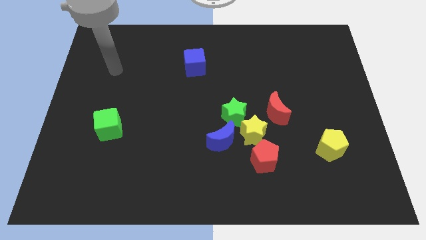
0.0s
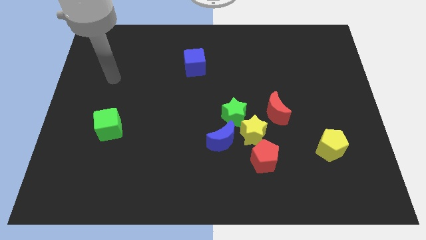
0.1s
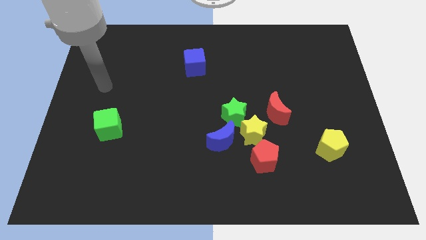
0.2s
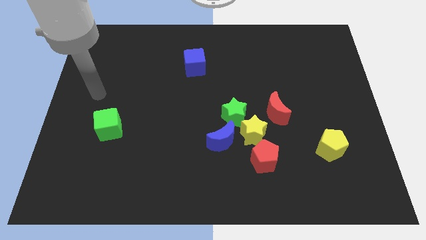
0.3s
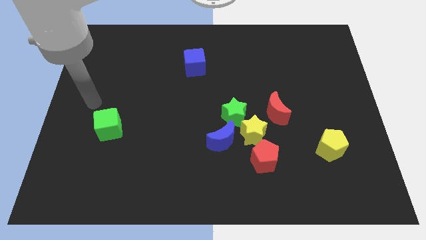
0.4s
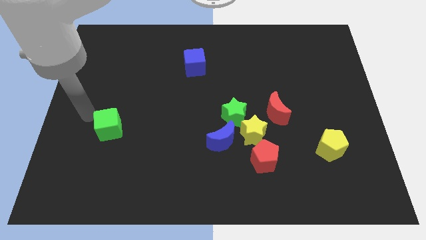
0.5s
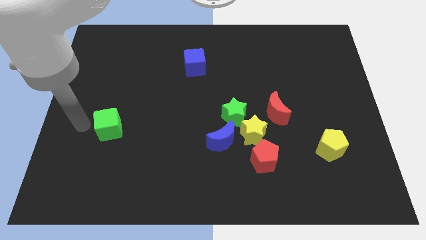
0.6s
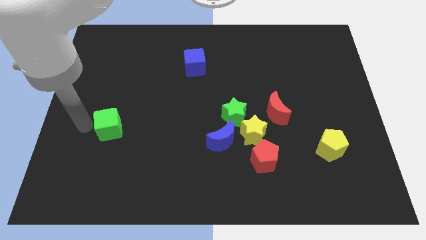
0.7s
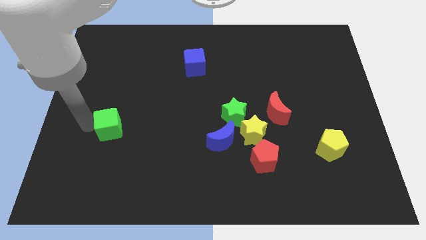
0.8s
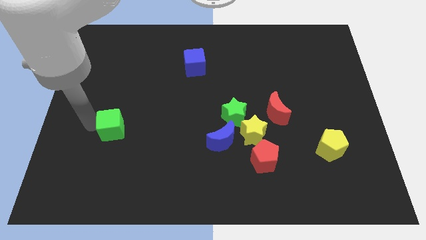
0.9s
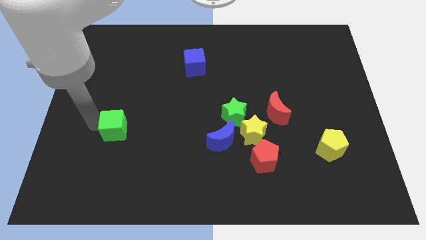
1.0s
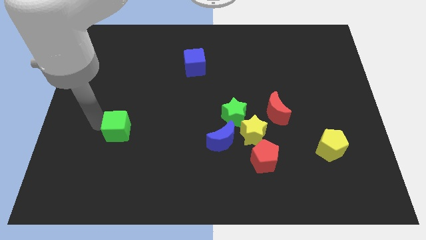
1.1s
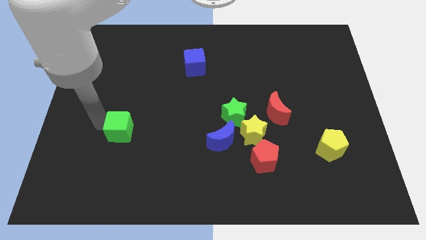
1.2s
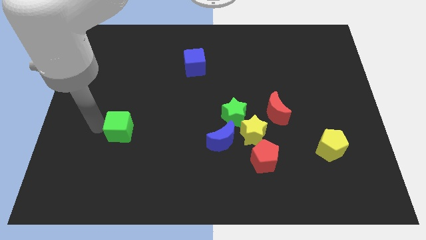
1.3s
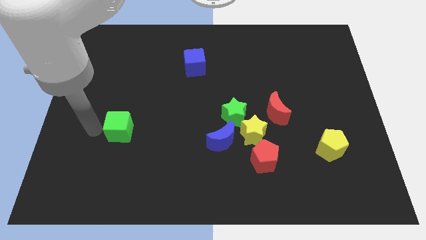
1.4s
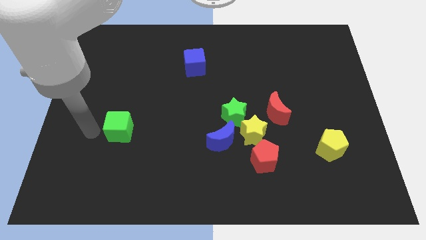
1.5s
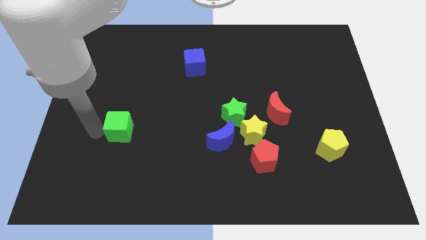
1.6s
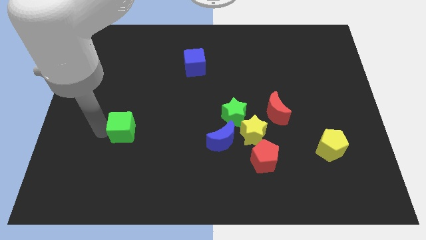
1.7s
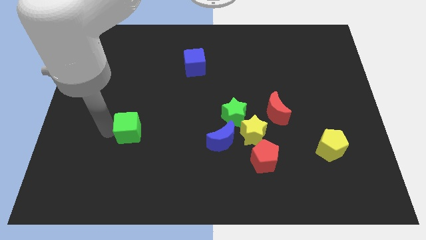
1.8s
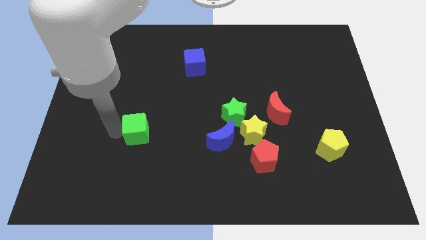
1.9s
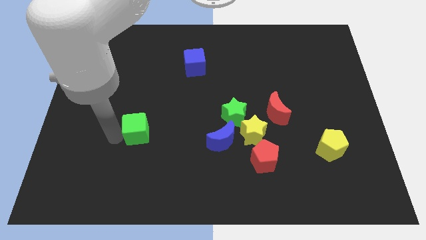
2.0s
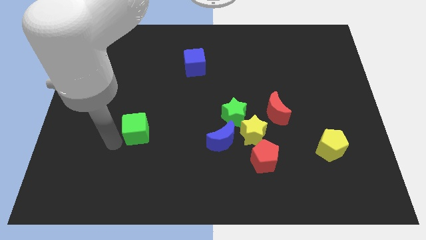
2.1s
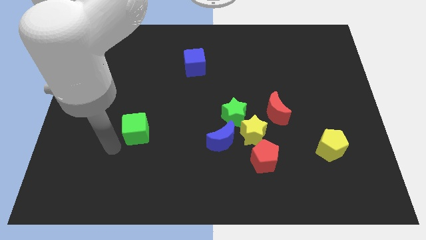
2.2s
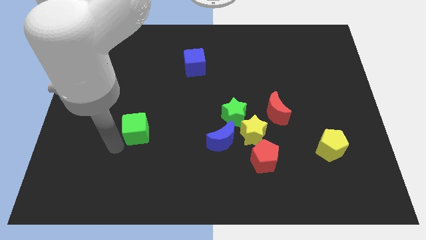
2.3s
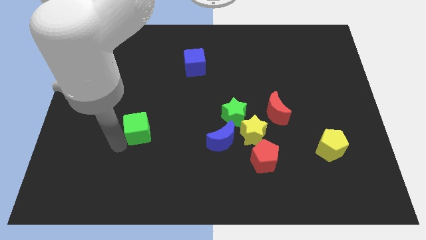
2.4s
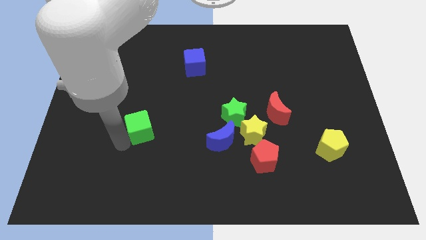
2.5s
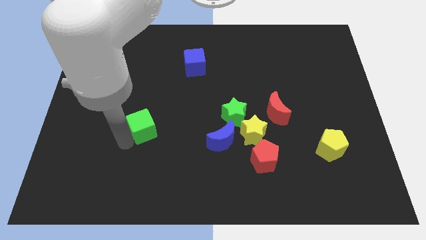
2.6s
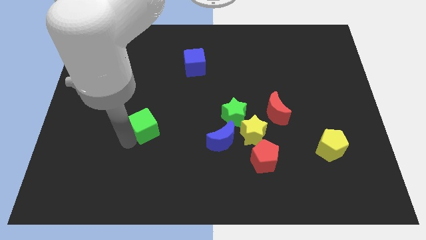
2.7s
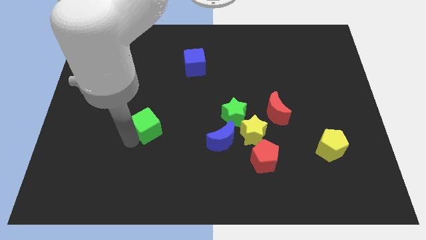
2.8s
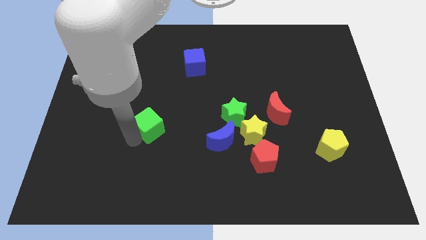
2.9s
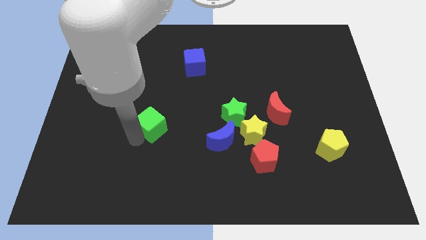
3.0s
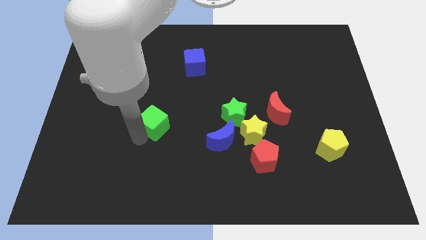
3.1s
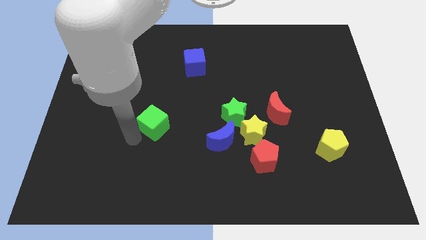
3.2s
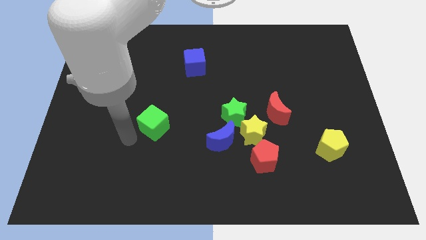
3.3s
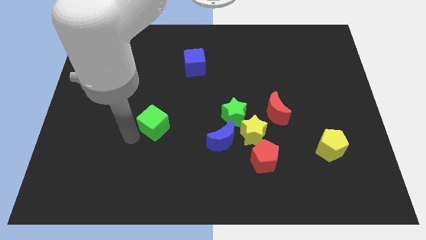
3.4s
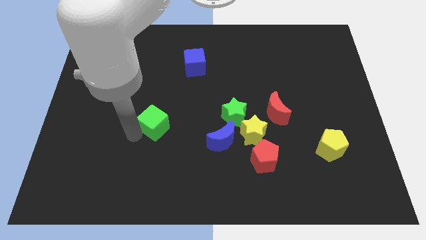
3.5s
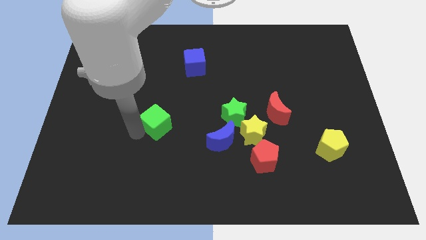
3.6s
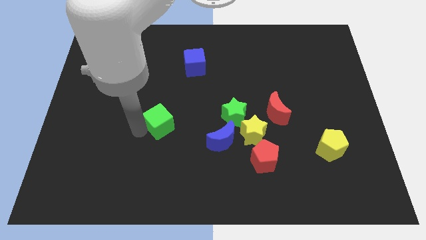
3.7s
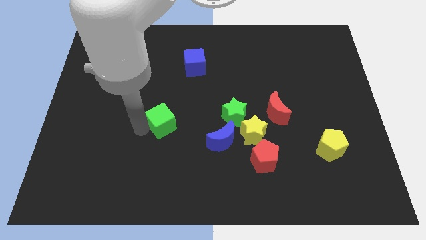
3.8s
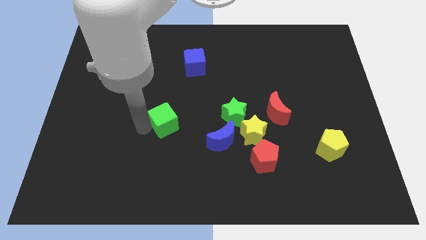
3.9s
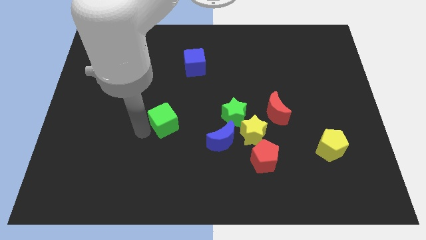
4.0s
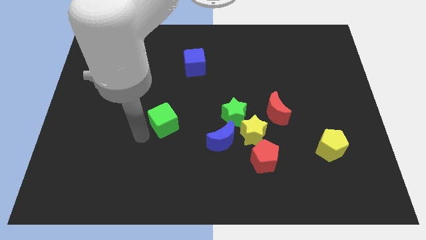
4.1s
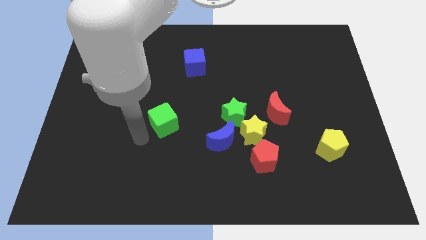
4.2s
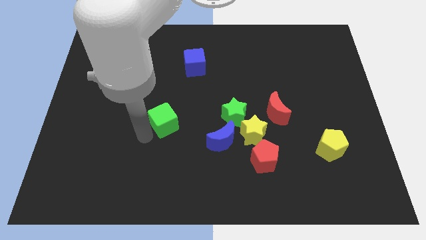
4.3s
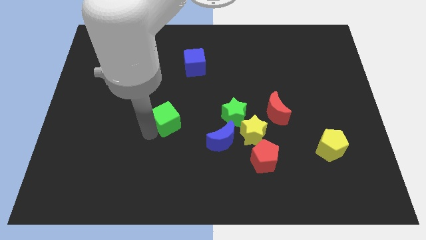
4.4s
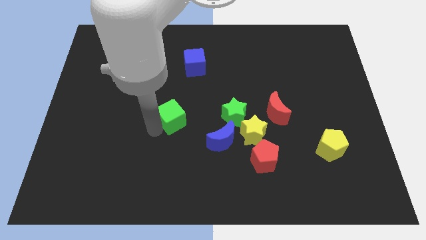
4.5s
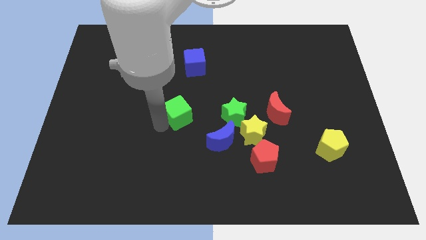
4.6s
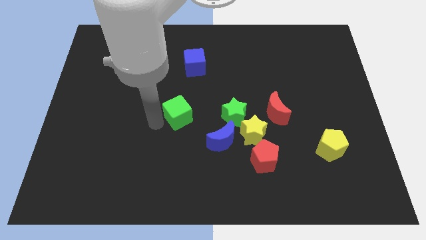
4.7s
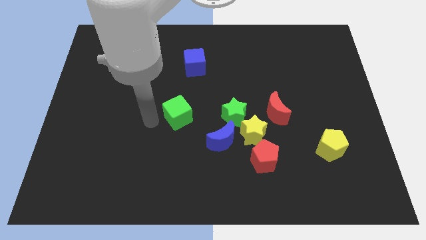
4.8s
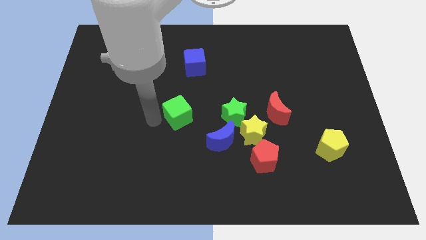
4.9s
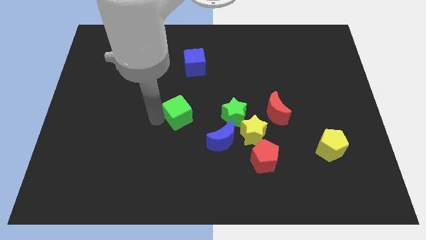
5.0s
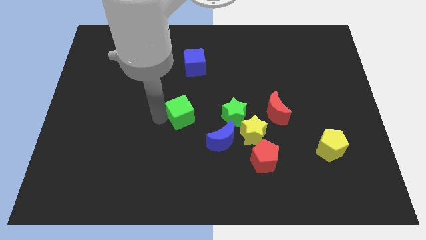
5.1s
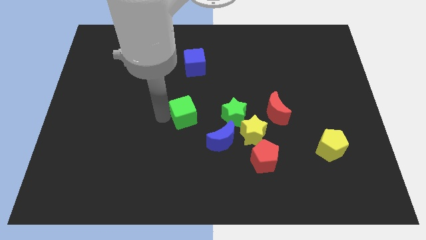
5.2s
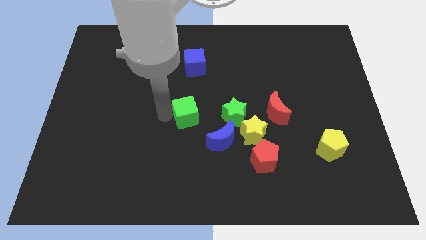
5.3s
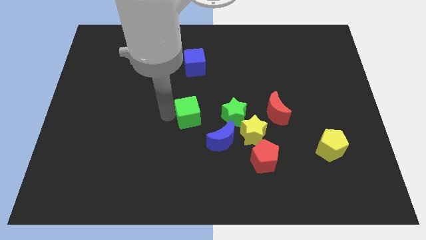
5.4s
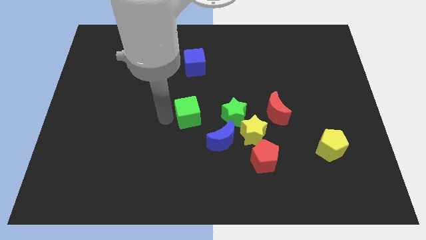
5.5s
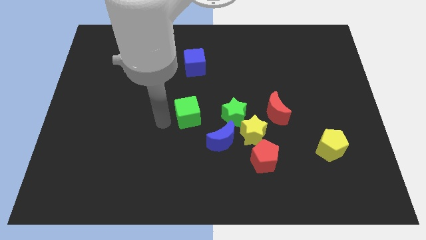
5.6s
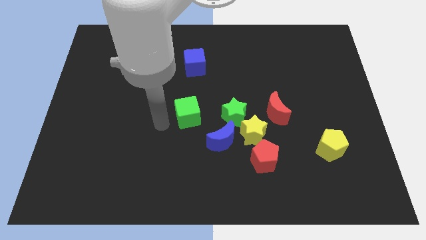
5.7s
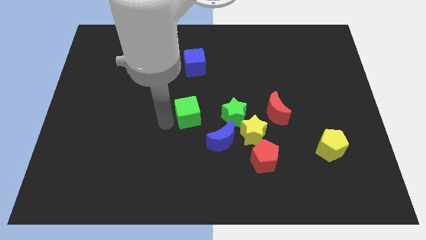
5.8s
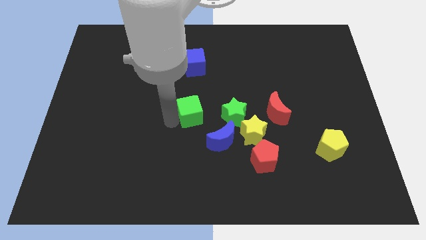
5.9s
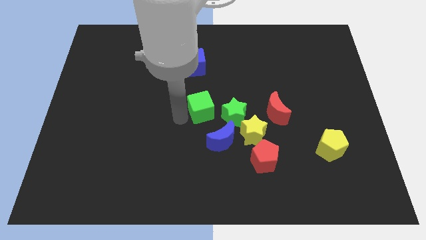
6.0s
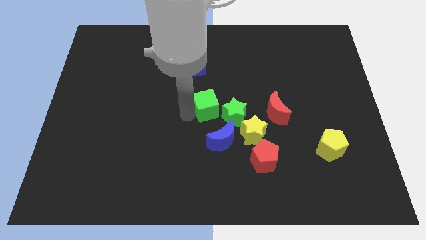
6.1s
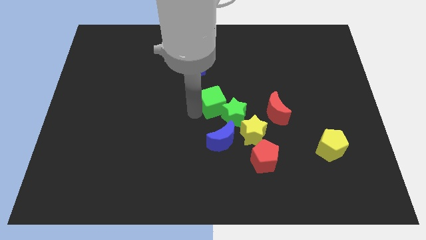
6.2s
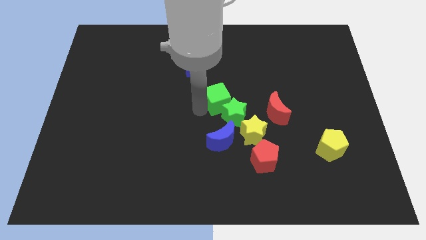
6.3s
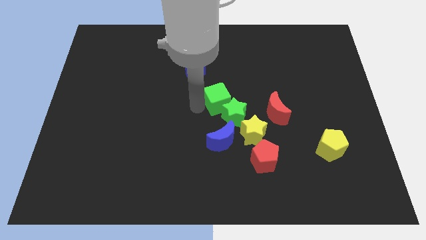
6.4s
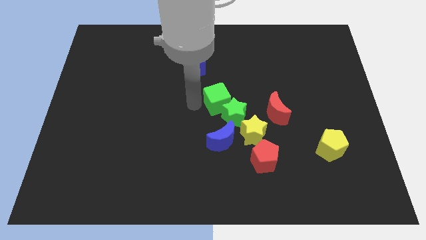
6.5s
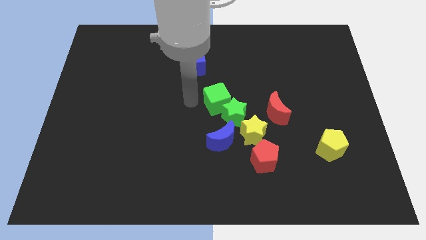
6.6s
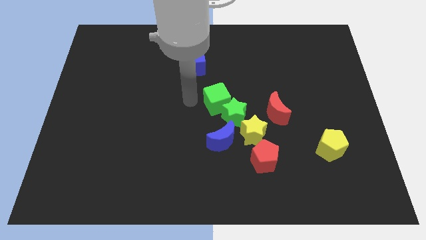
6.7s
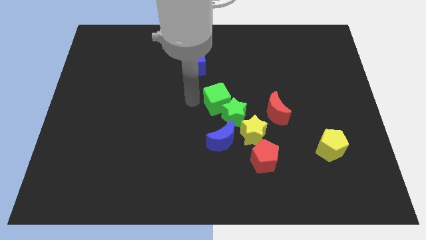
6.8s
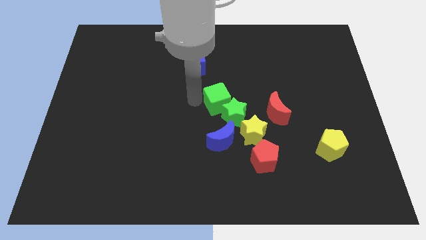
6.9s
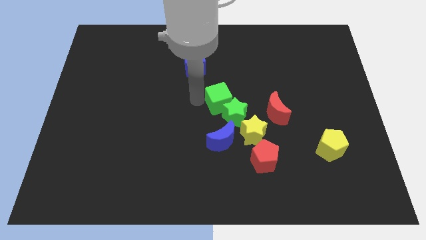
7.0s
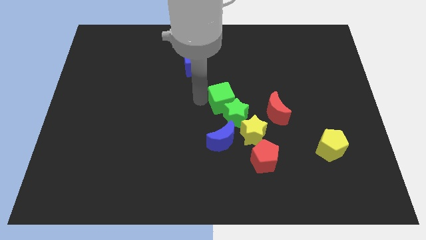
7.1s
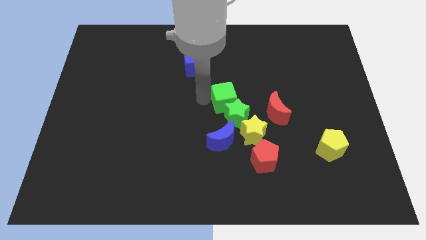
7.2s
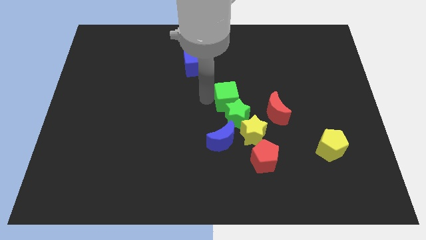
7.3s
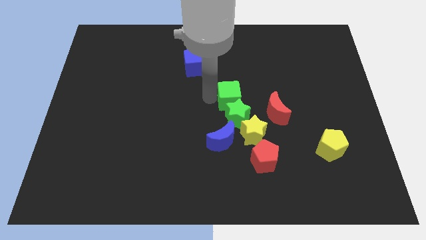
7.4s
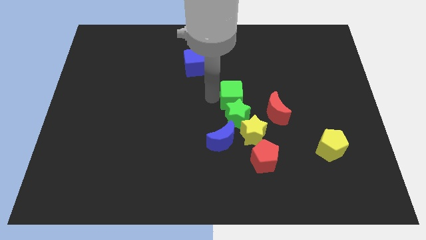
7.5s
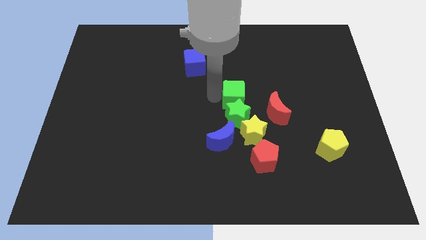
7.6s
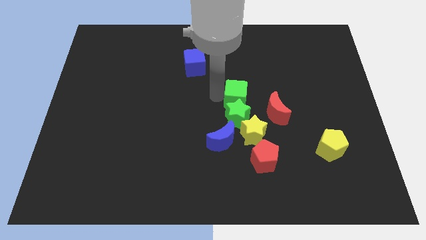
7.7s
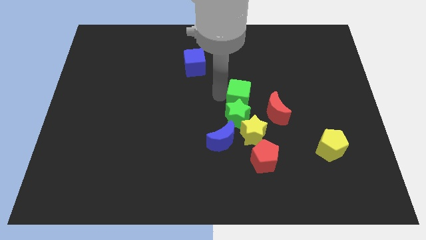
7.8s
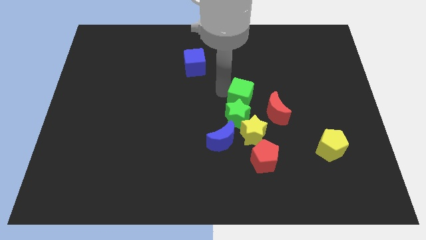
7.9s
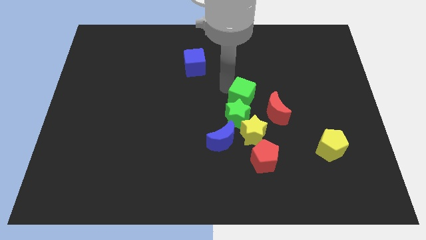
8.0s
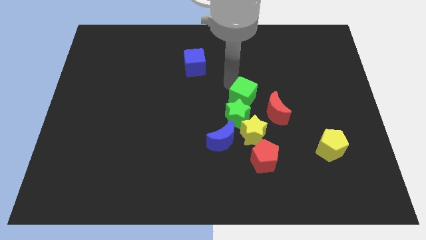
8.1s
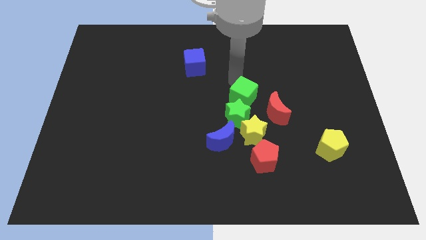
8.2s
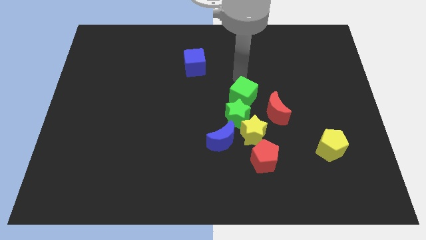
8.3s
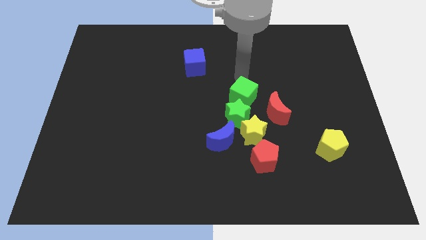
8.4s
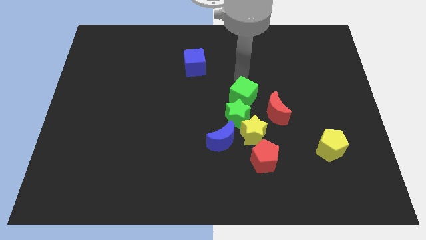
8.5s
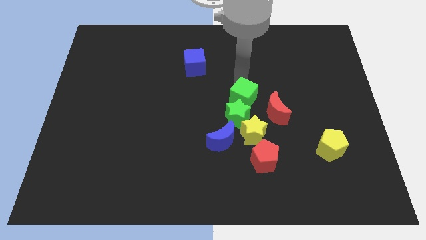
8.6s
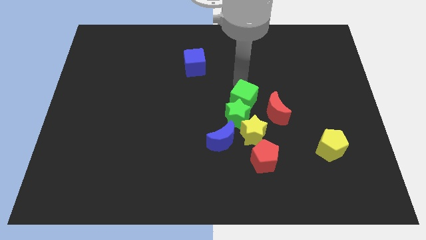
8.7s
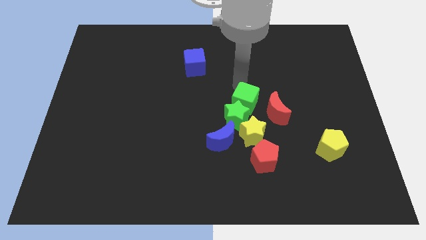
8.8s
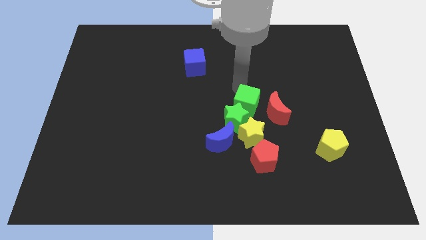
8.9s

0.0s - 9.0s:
slide the green cube to the top right of the blue moon
